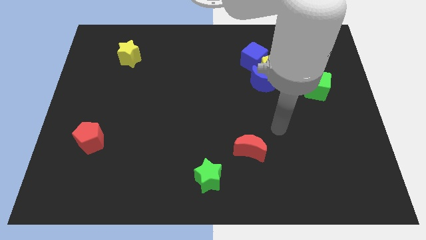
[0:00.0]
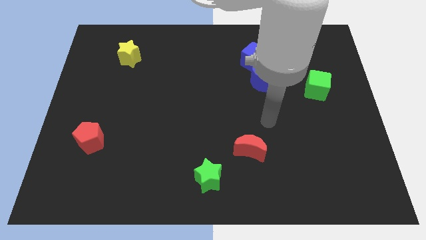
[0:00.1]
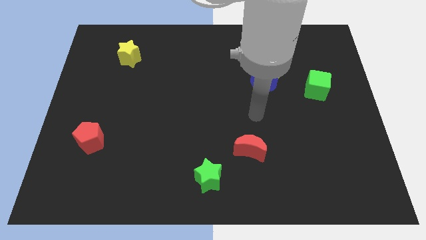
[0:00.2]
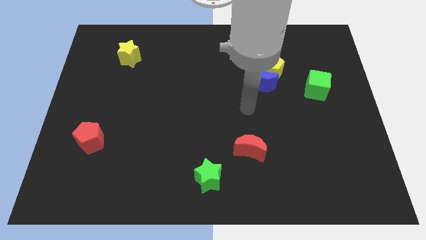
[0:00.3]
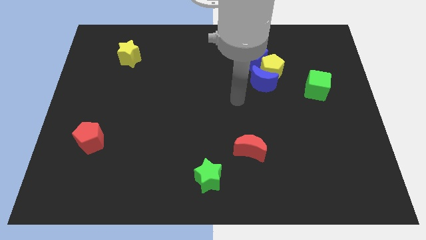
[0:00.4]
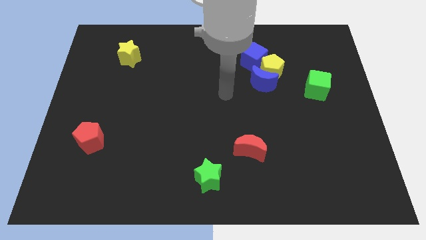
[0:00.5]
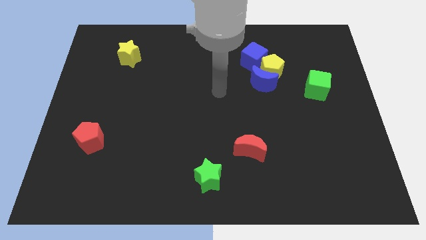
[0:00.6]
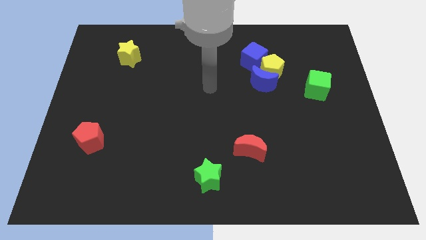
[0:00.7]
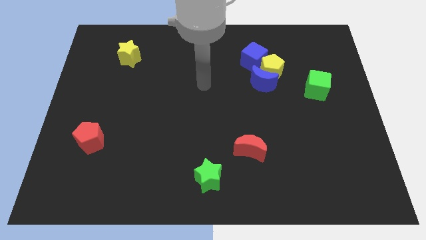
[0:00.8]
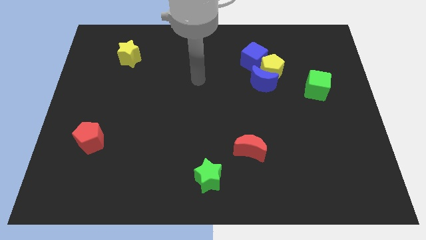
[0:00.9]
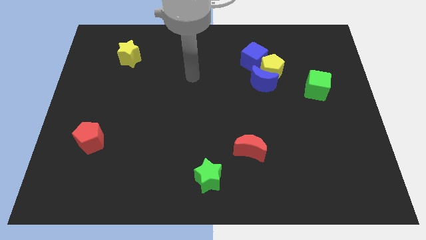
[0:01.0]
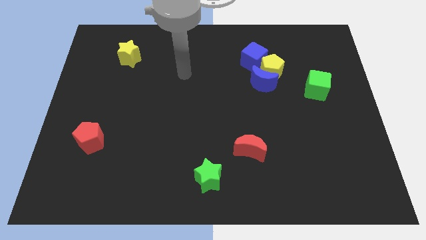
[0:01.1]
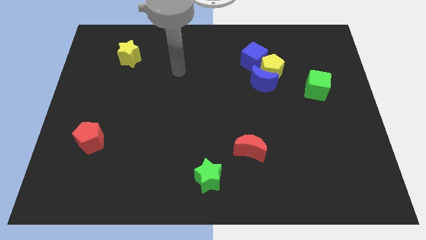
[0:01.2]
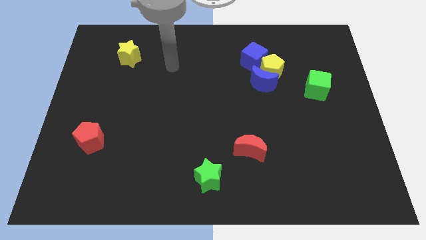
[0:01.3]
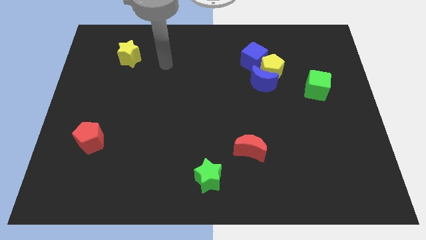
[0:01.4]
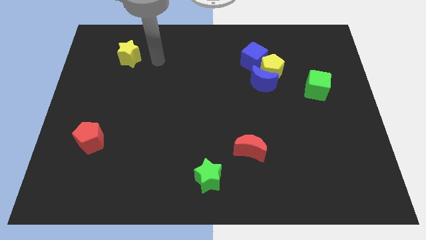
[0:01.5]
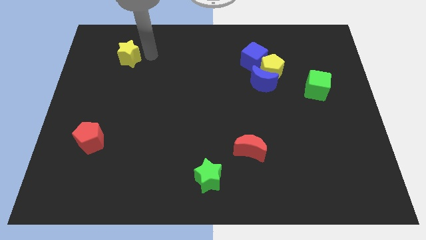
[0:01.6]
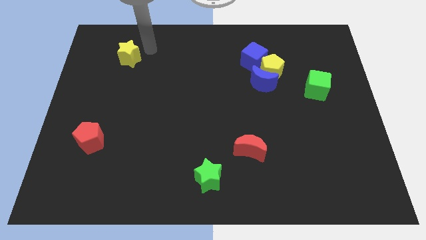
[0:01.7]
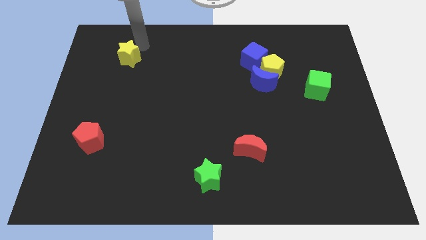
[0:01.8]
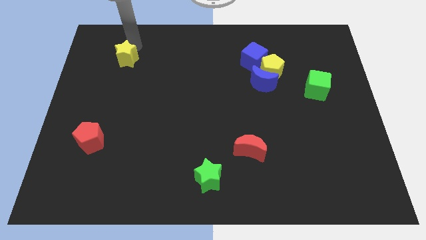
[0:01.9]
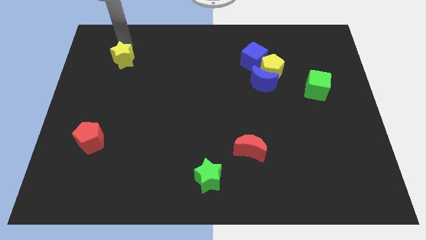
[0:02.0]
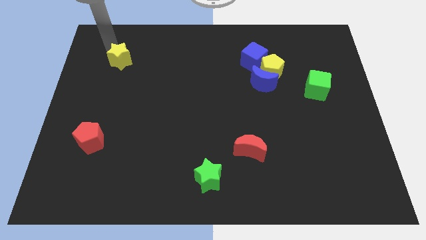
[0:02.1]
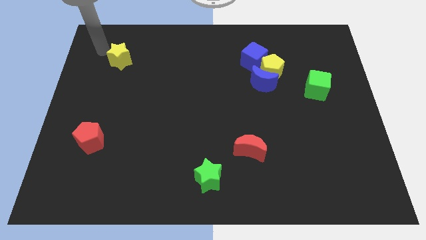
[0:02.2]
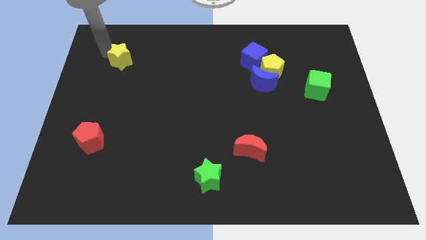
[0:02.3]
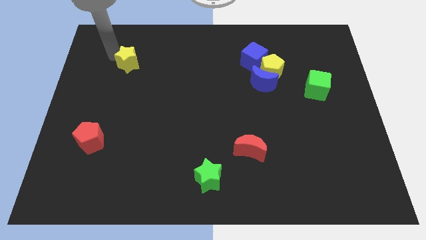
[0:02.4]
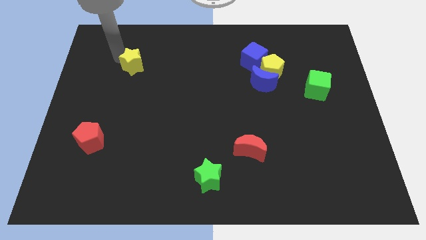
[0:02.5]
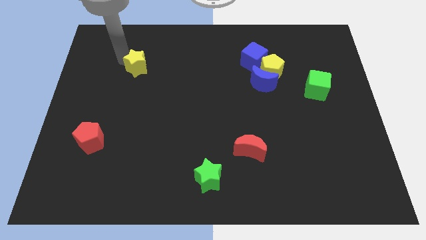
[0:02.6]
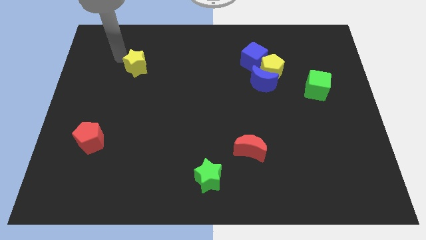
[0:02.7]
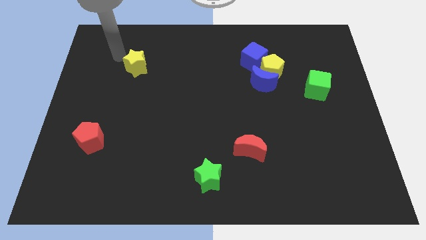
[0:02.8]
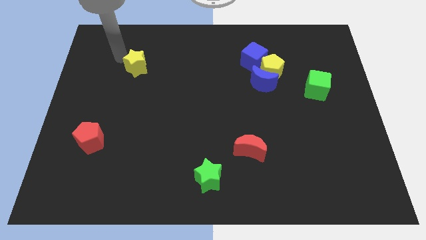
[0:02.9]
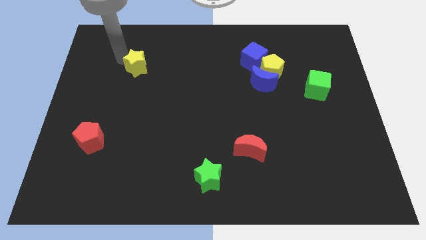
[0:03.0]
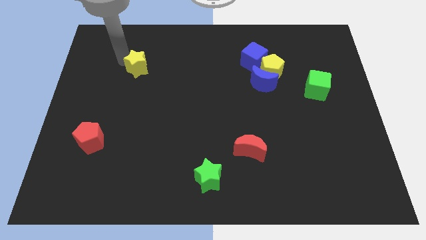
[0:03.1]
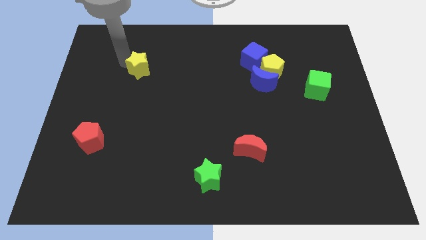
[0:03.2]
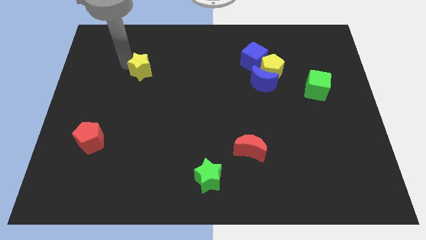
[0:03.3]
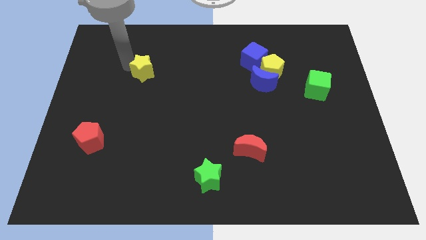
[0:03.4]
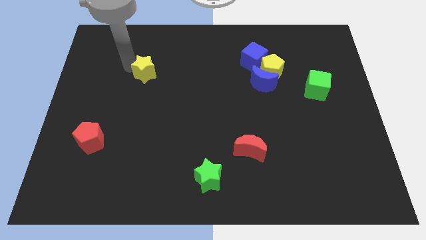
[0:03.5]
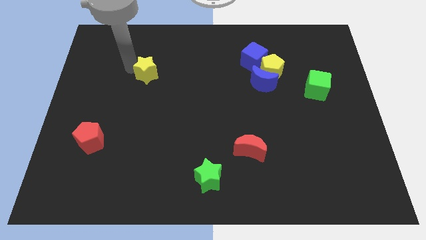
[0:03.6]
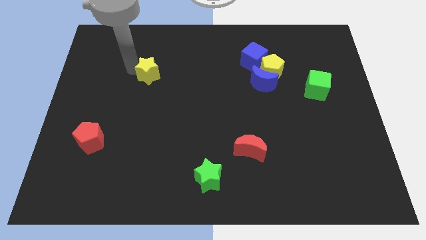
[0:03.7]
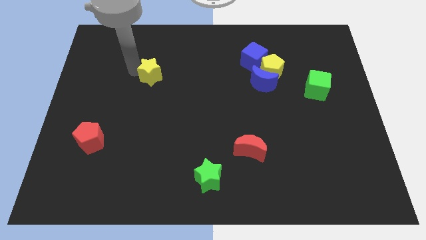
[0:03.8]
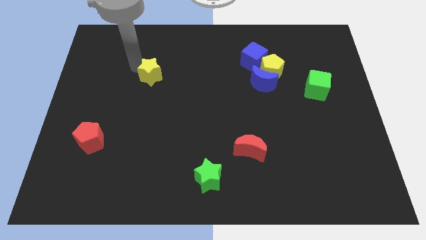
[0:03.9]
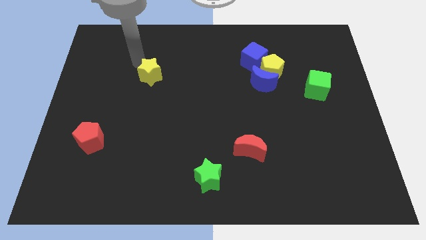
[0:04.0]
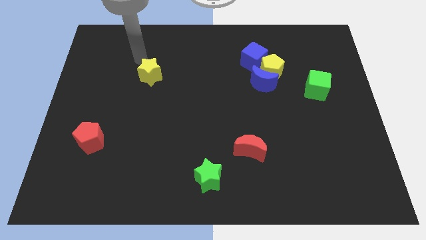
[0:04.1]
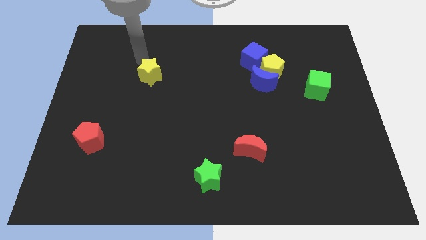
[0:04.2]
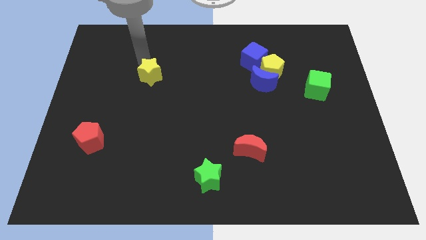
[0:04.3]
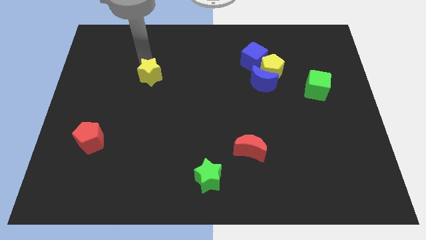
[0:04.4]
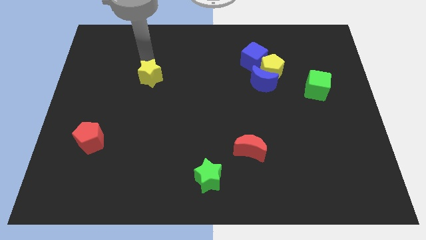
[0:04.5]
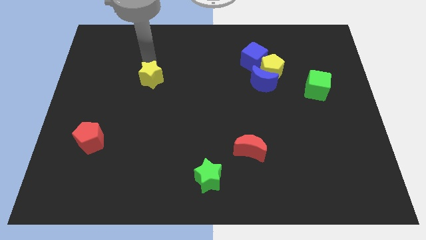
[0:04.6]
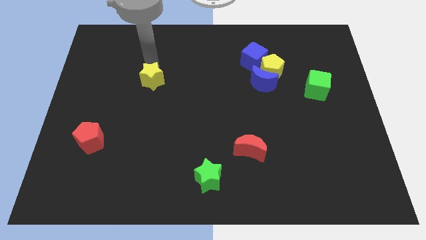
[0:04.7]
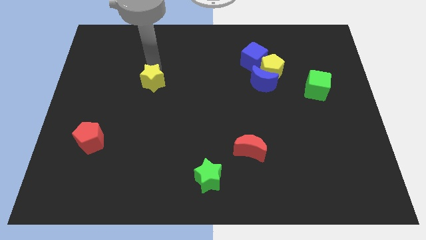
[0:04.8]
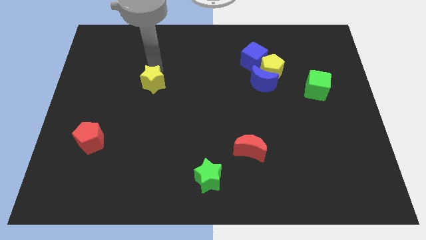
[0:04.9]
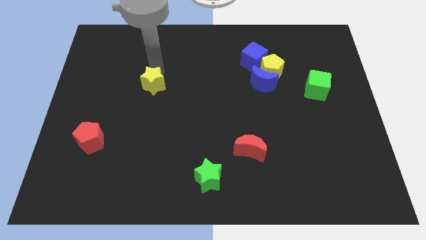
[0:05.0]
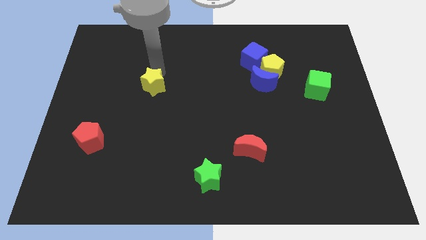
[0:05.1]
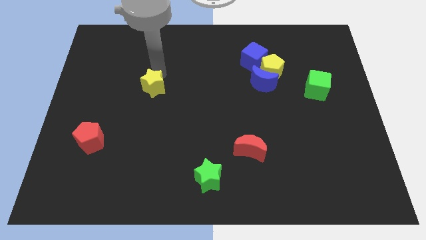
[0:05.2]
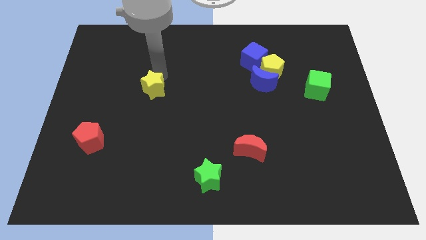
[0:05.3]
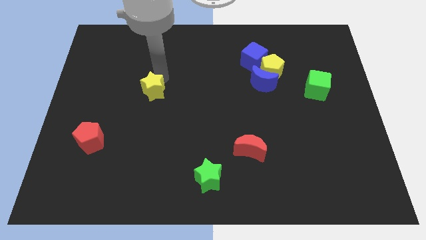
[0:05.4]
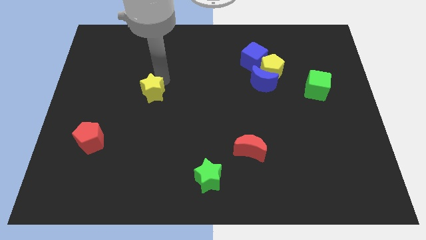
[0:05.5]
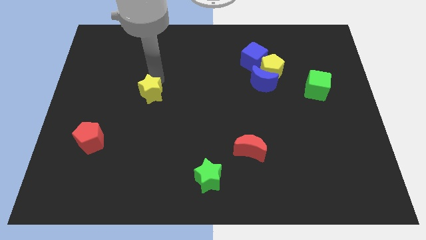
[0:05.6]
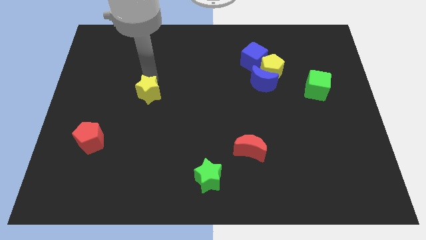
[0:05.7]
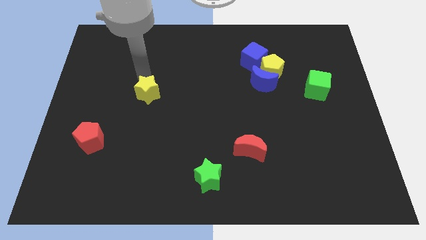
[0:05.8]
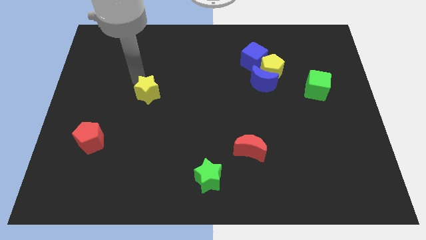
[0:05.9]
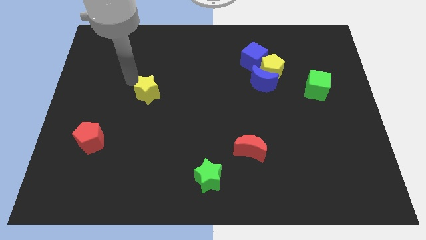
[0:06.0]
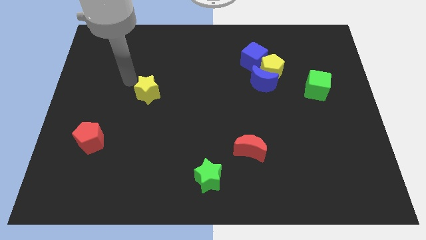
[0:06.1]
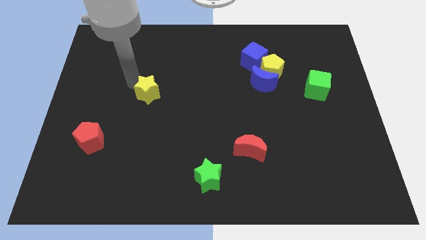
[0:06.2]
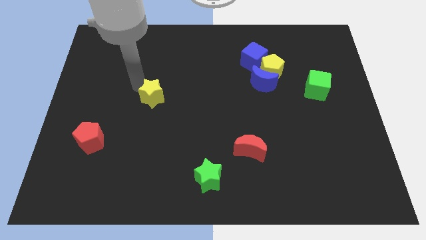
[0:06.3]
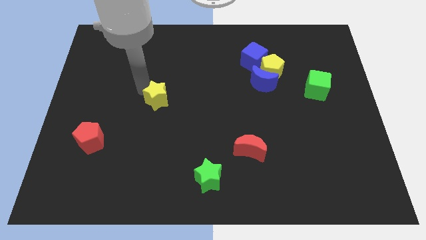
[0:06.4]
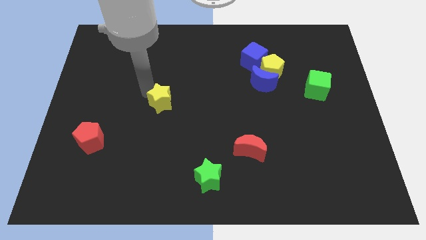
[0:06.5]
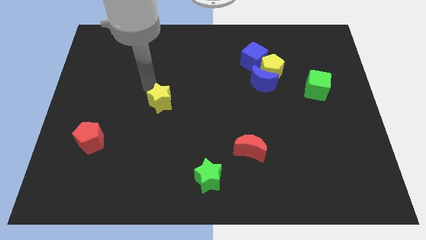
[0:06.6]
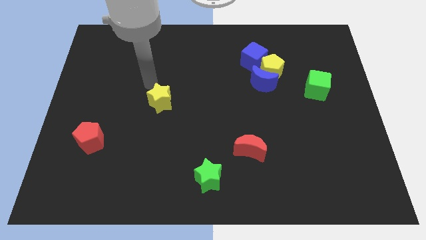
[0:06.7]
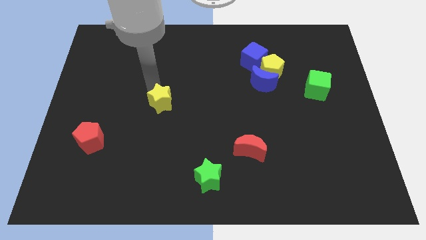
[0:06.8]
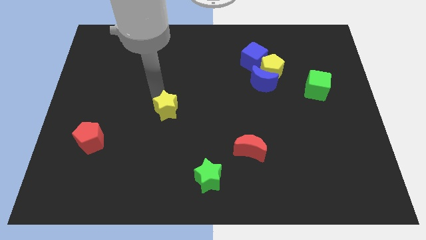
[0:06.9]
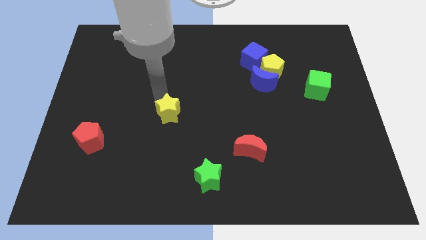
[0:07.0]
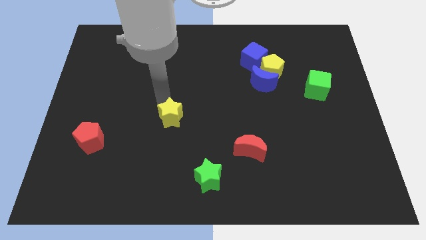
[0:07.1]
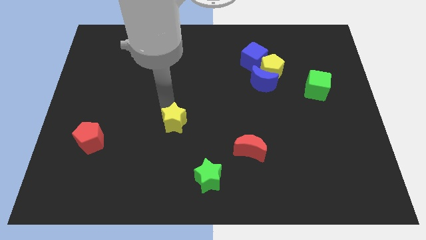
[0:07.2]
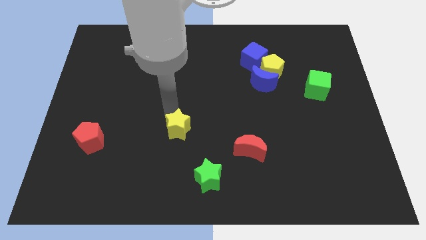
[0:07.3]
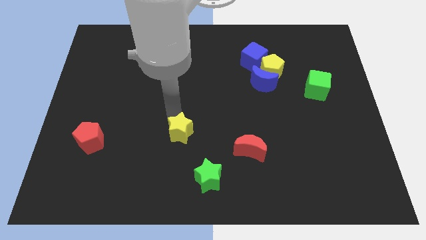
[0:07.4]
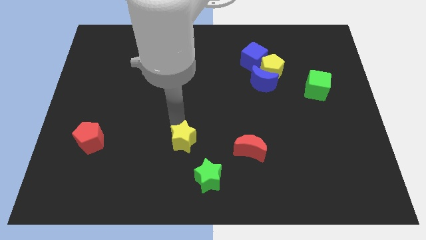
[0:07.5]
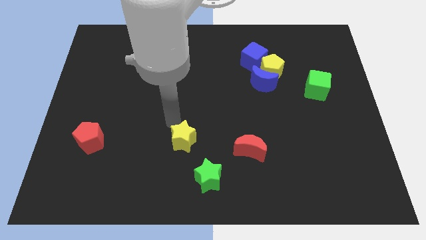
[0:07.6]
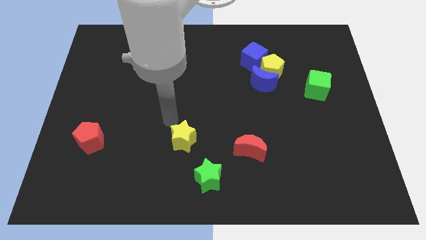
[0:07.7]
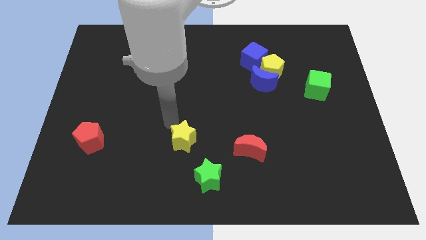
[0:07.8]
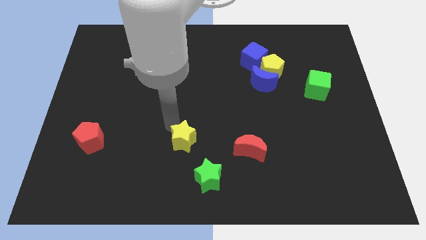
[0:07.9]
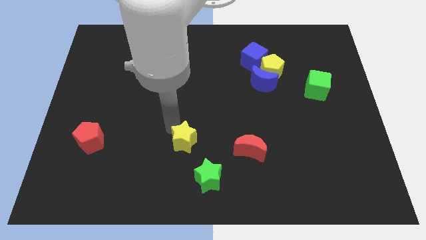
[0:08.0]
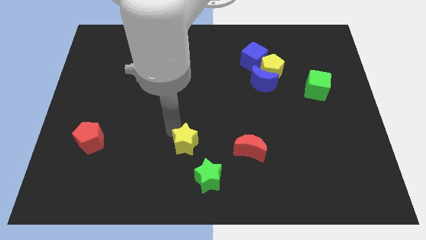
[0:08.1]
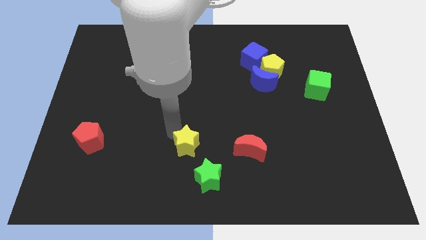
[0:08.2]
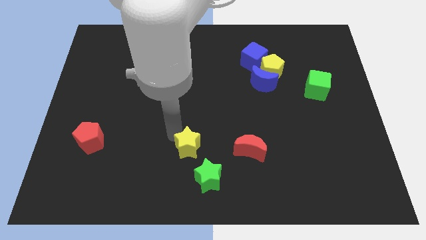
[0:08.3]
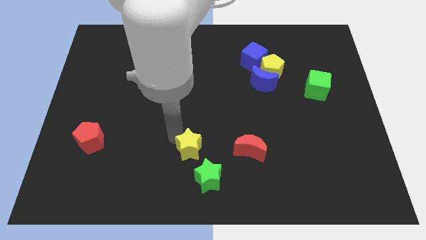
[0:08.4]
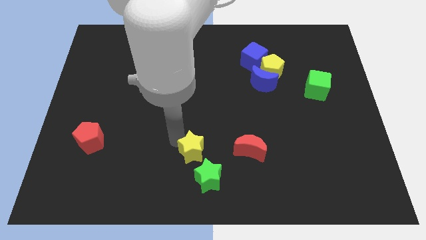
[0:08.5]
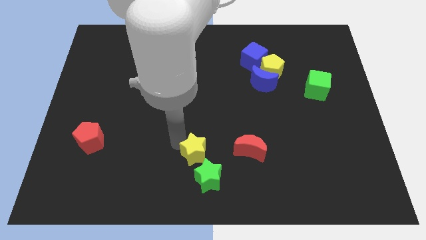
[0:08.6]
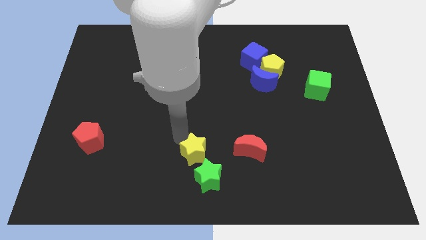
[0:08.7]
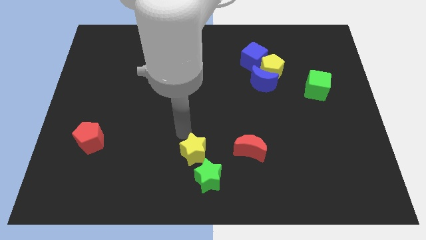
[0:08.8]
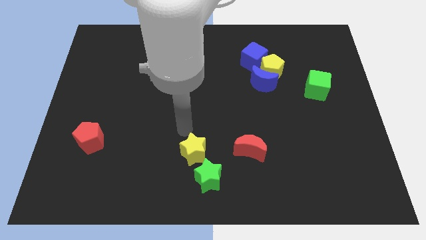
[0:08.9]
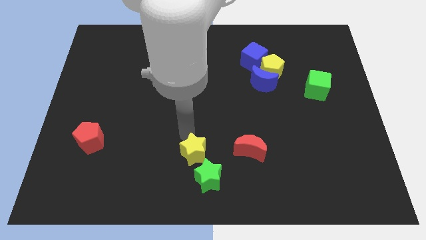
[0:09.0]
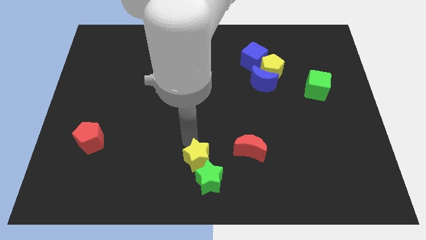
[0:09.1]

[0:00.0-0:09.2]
move the yellow star close to the green star
